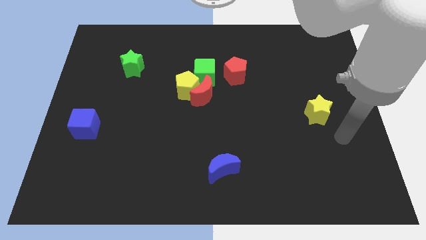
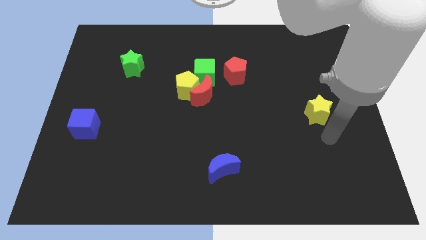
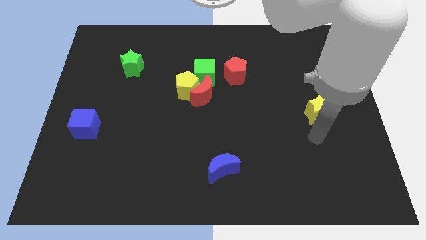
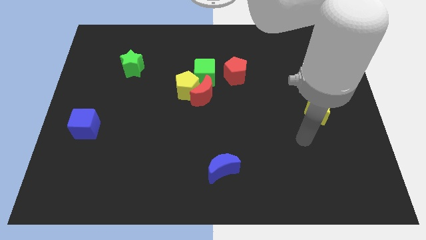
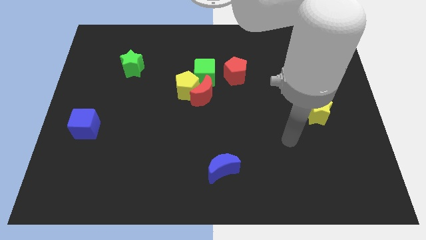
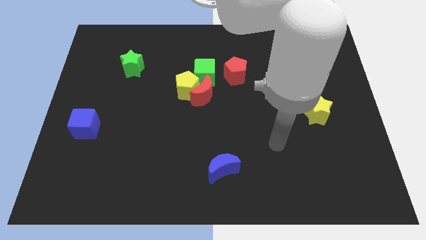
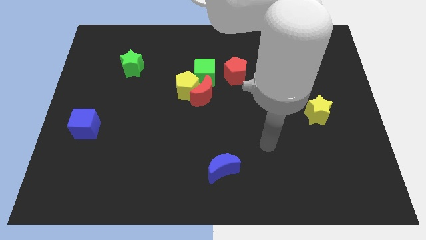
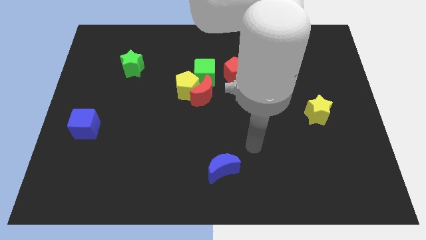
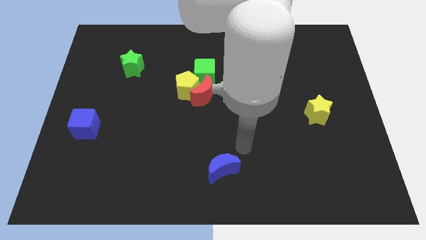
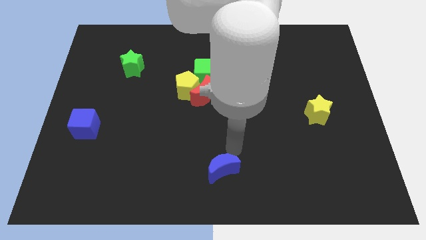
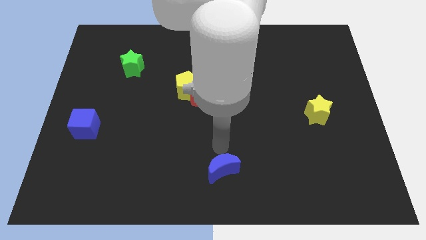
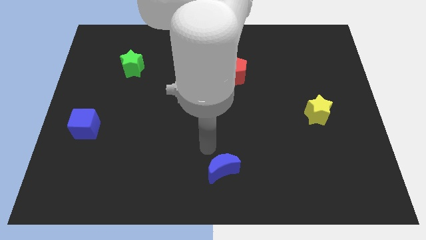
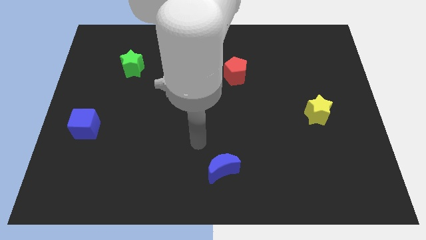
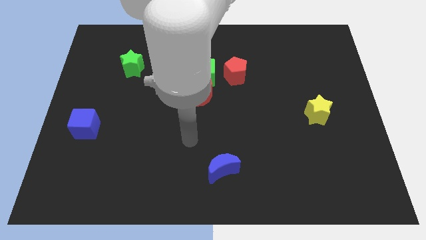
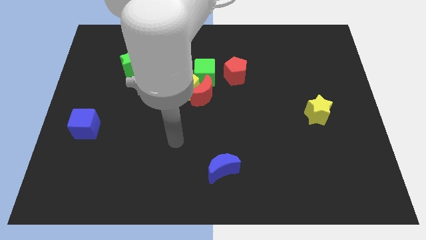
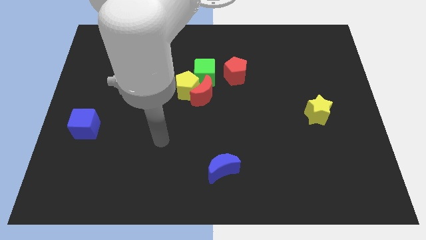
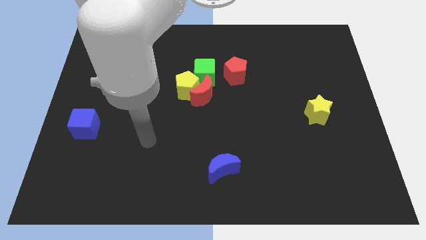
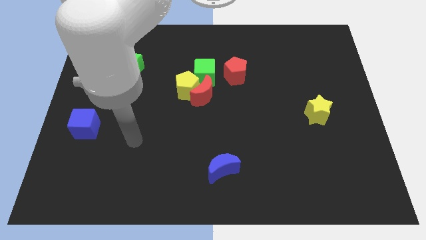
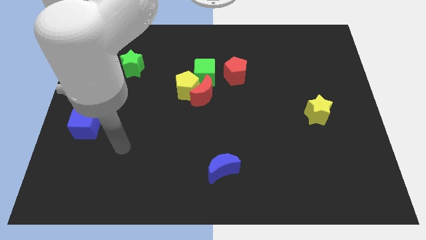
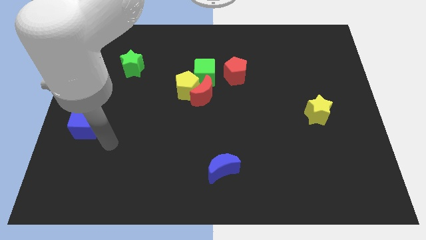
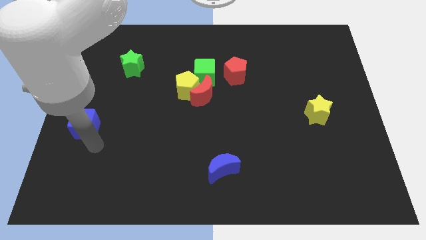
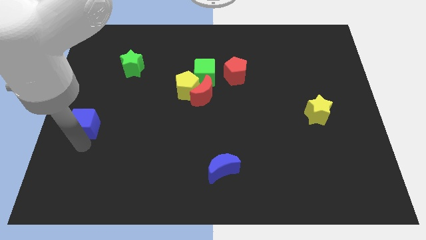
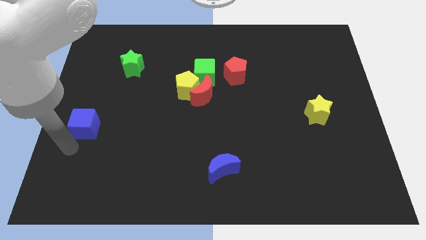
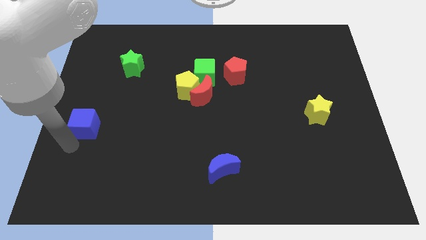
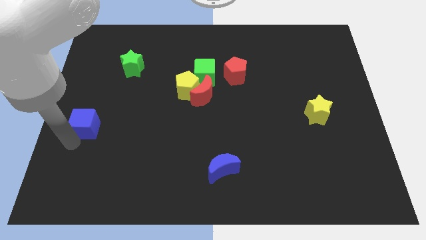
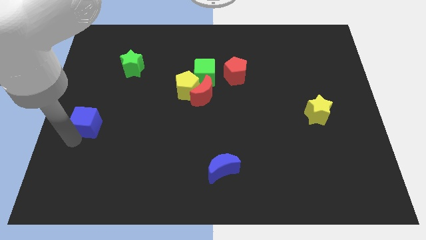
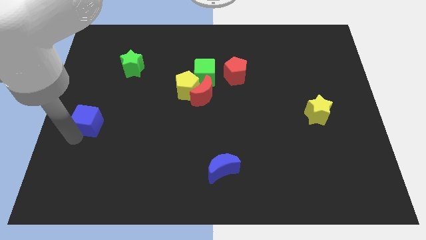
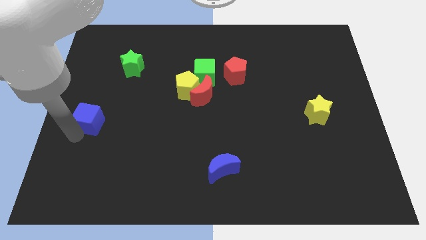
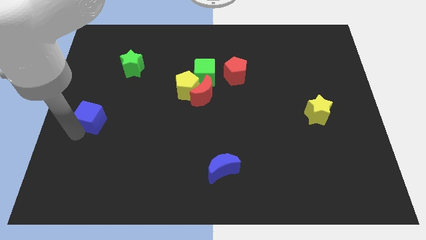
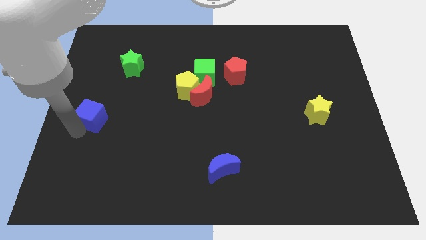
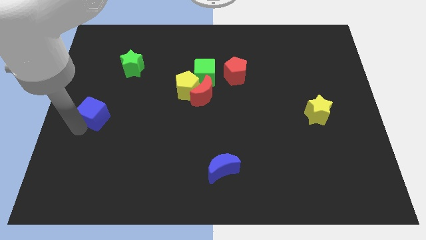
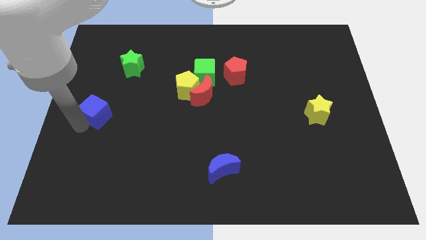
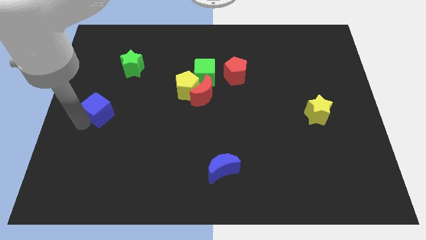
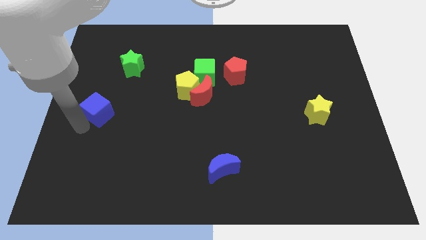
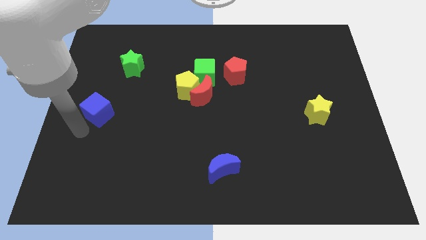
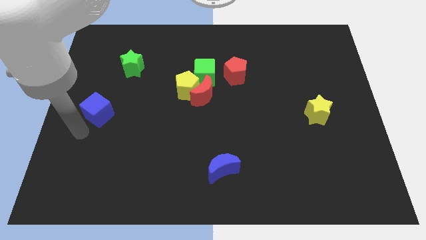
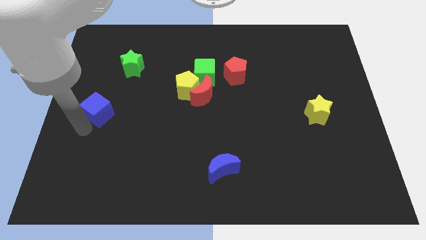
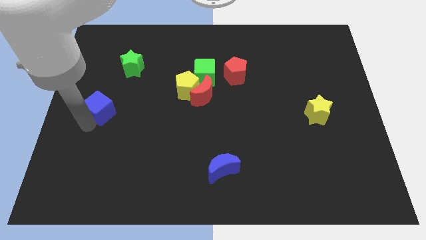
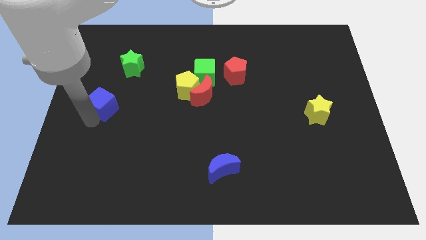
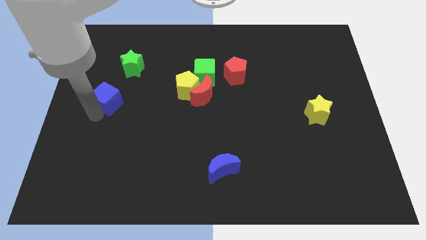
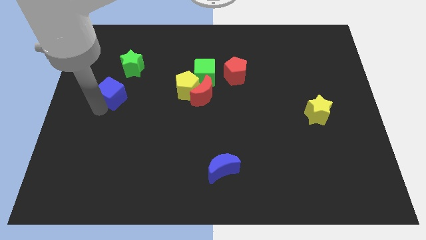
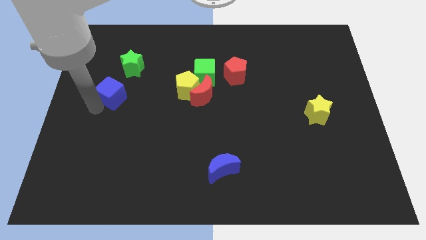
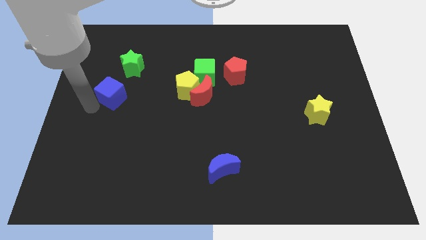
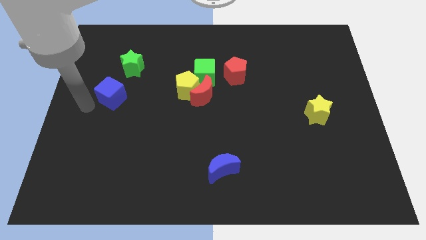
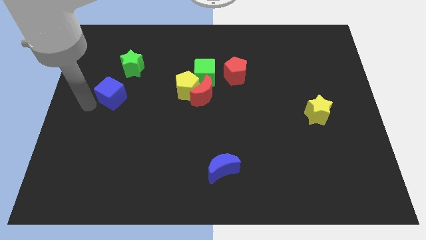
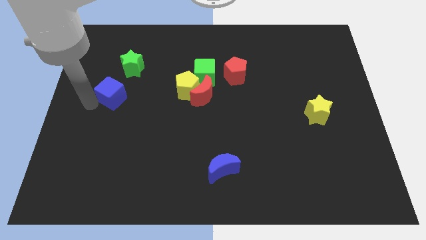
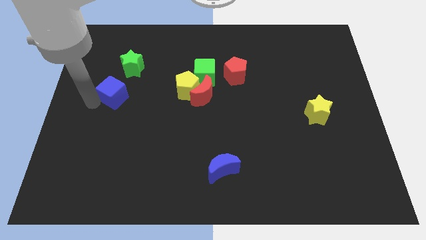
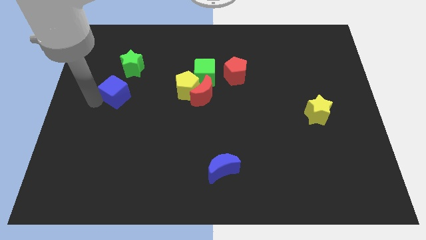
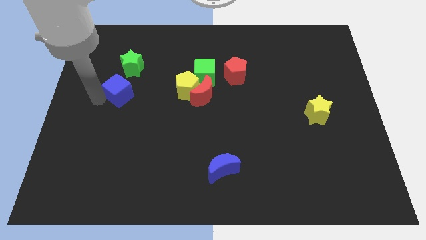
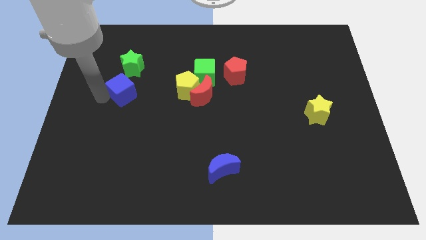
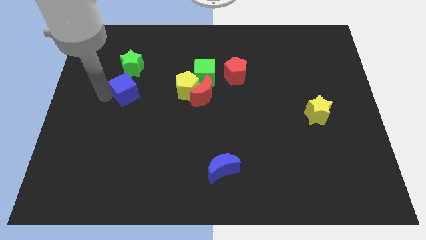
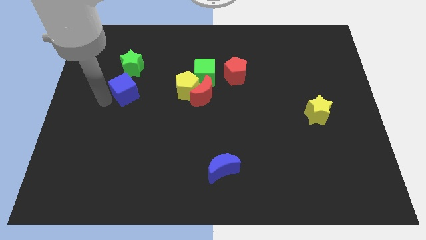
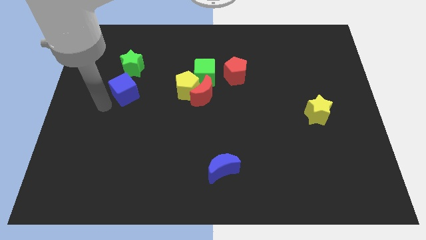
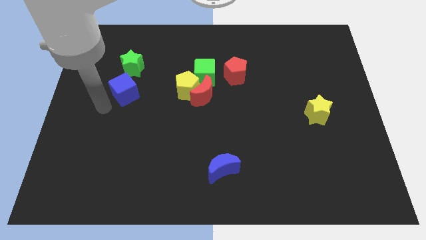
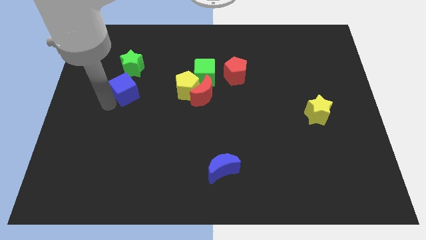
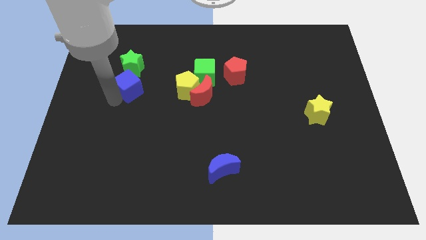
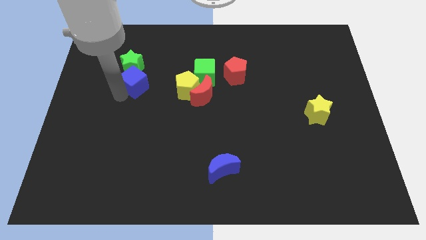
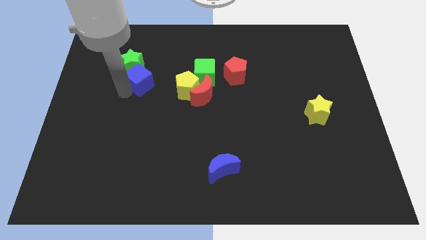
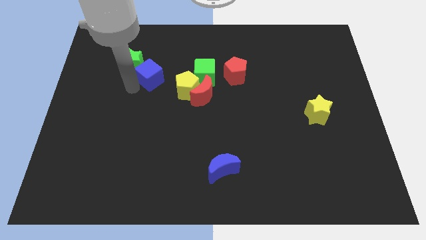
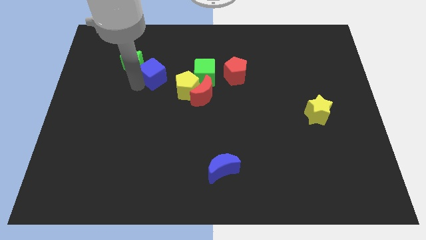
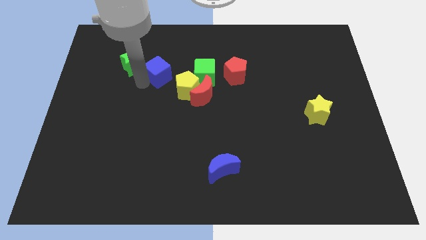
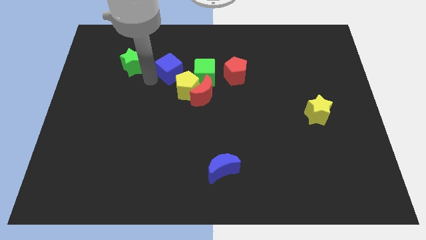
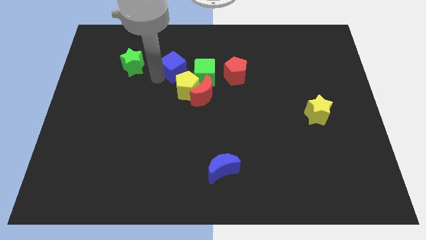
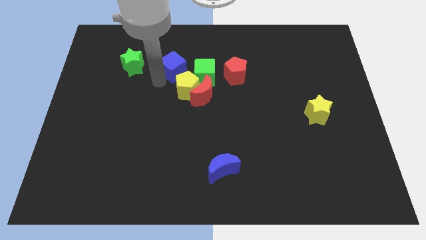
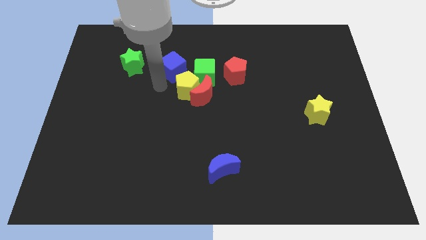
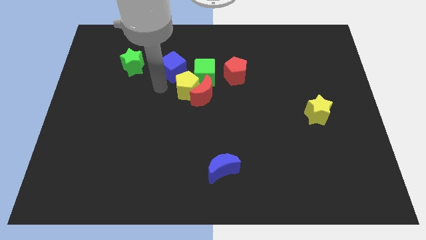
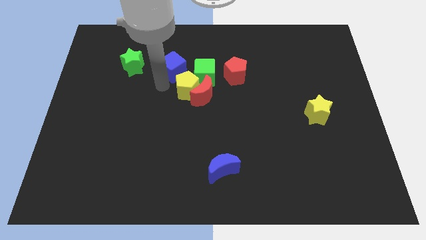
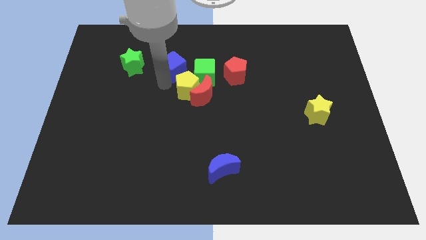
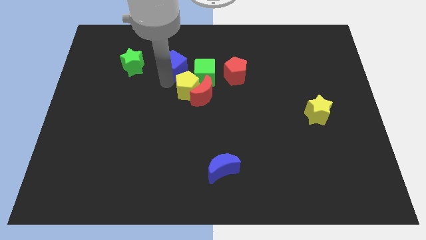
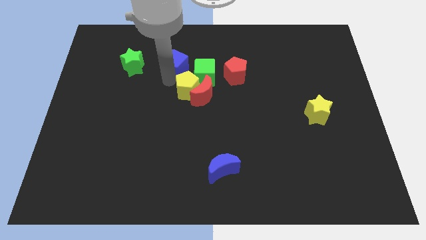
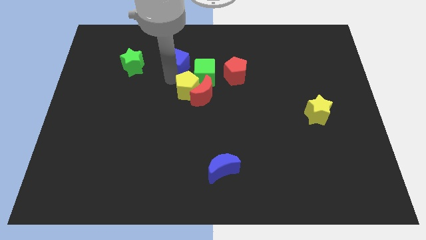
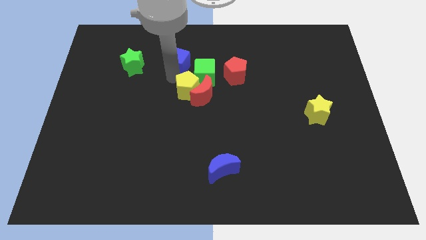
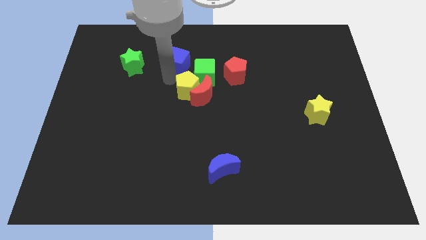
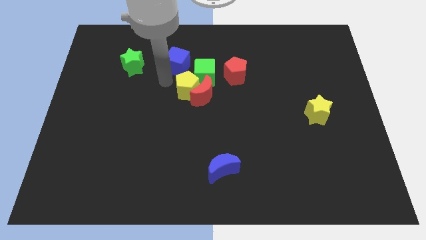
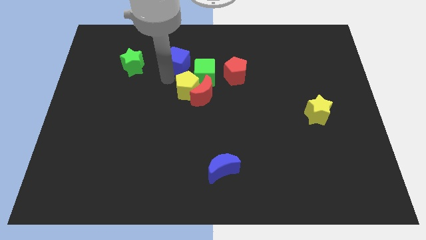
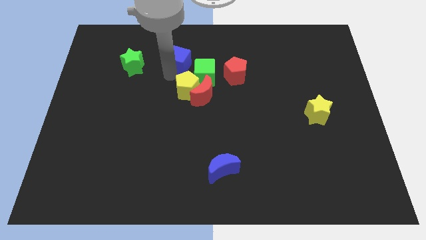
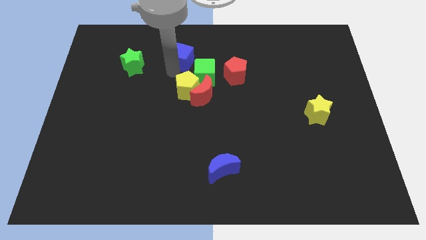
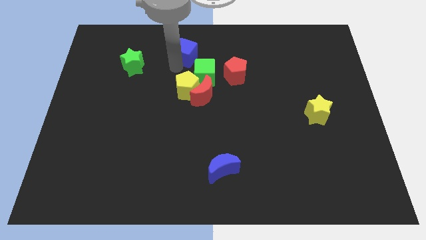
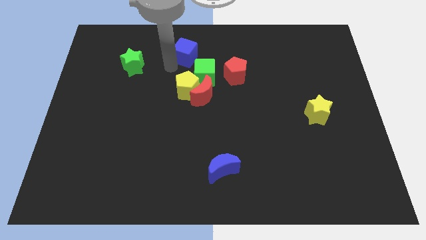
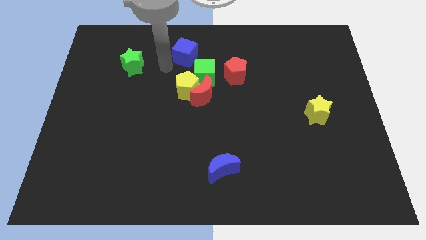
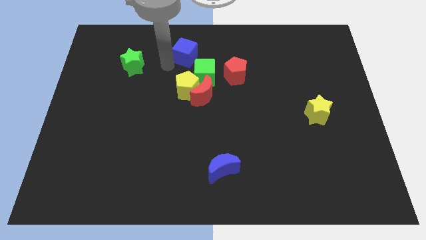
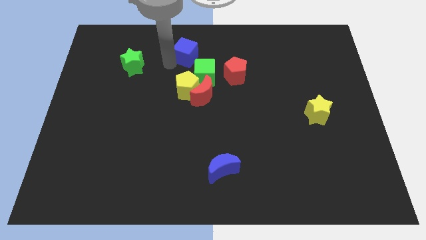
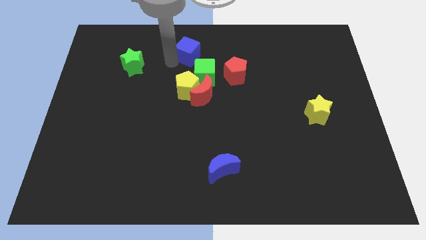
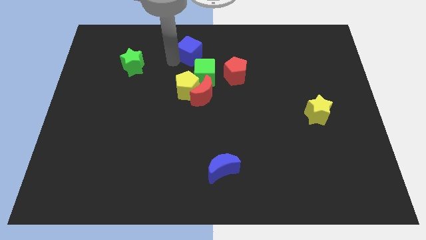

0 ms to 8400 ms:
slide the blue cube to the towards your base

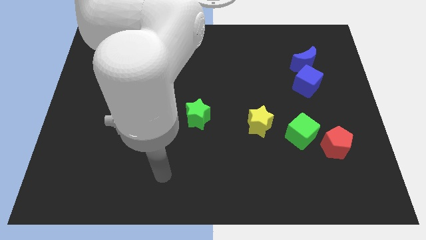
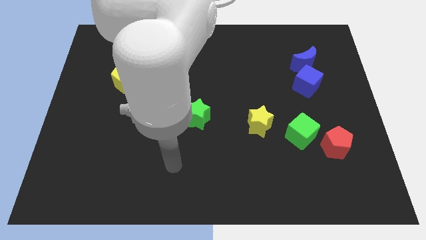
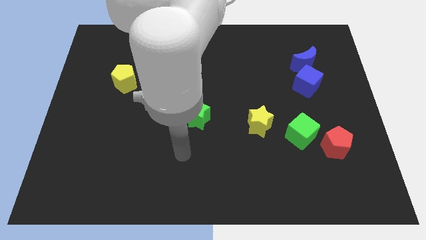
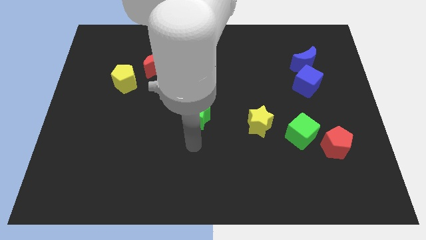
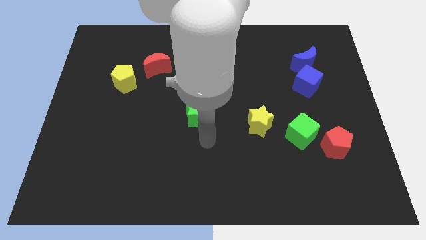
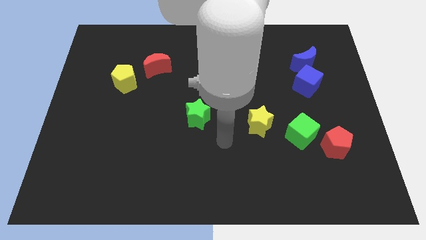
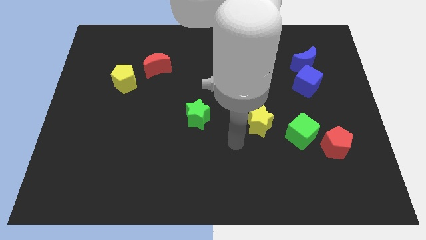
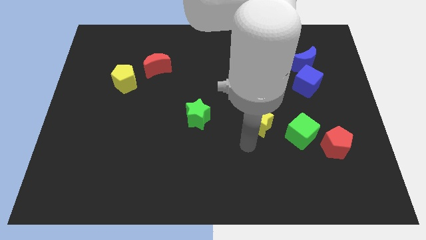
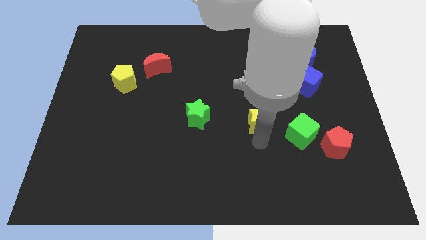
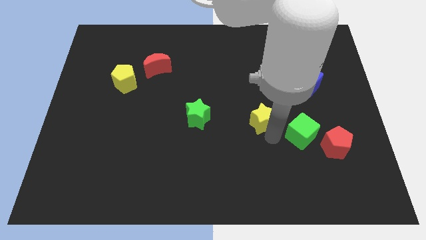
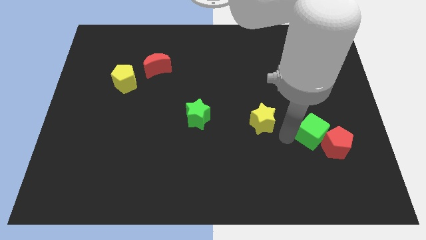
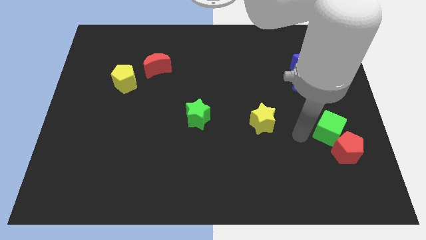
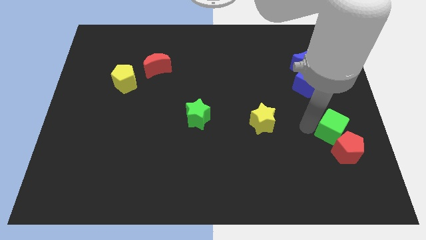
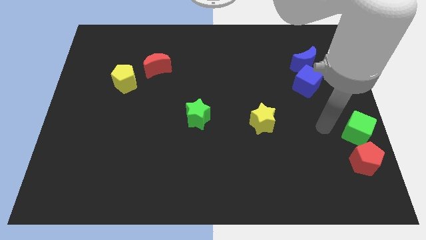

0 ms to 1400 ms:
move the red pentagon to the bottom right corner
